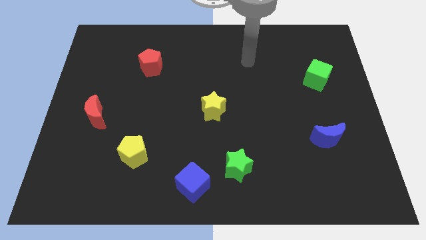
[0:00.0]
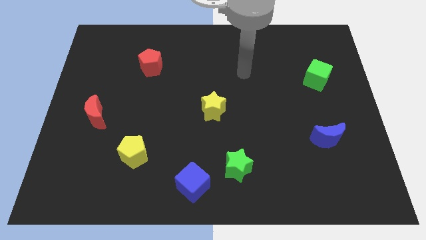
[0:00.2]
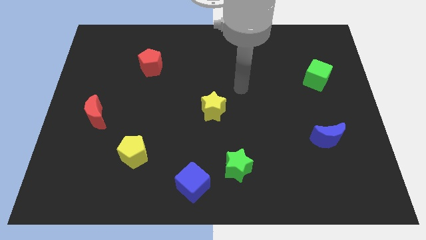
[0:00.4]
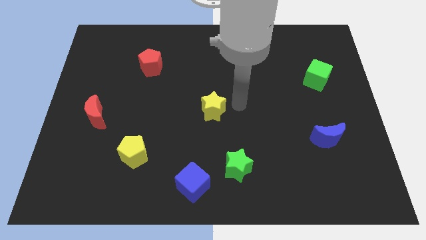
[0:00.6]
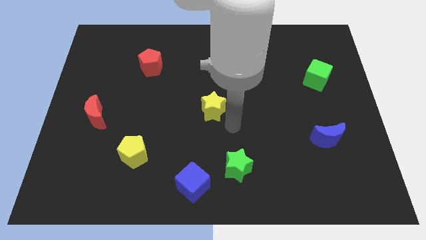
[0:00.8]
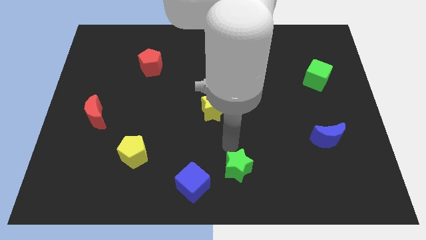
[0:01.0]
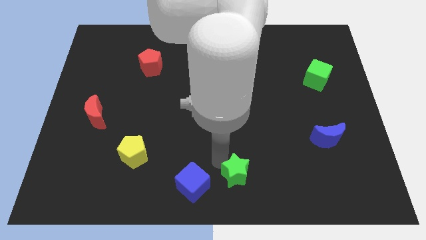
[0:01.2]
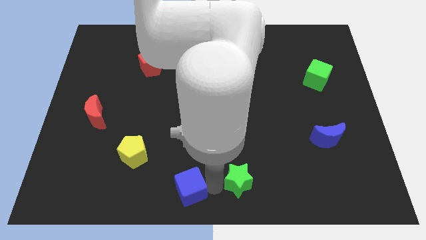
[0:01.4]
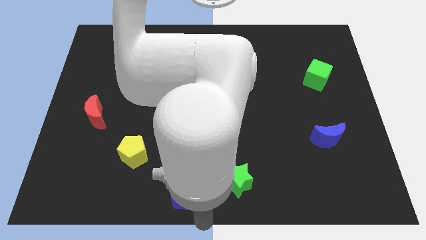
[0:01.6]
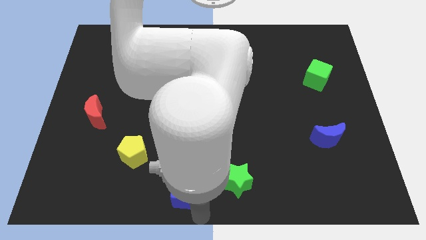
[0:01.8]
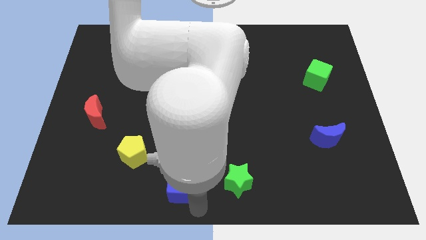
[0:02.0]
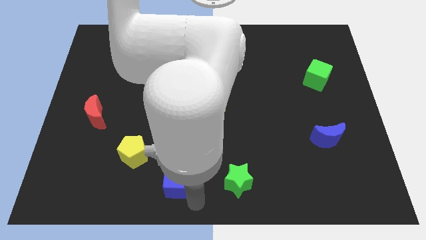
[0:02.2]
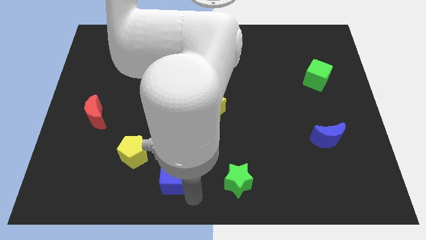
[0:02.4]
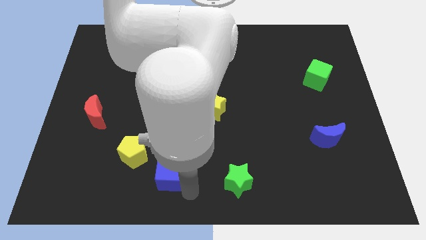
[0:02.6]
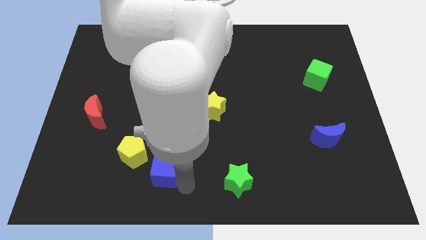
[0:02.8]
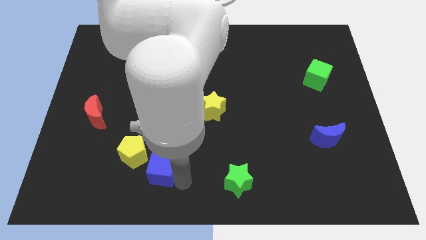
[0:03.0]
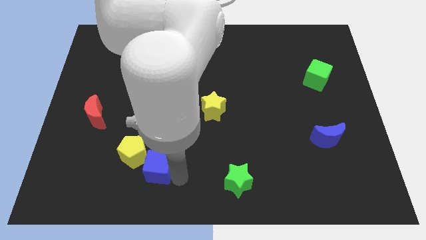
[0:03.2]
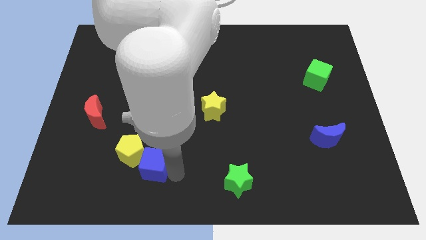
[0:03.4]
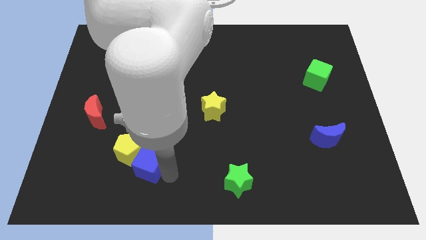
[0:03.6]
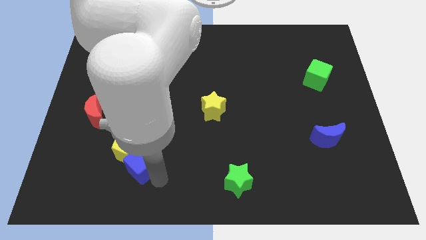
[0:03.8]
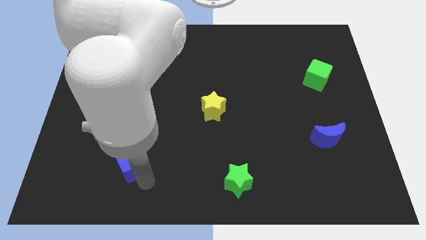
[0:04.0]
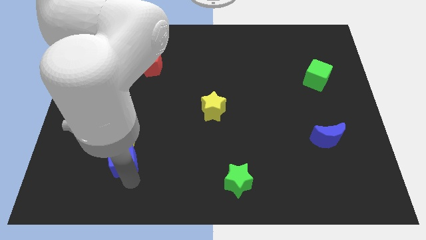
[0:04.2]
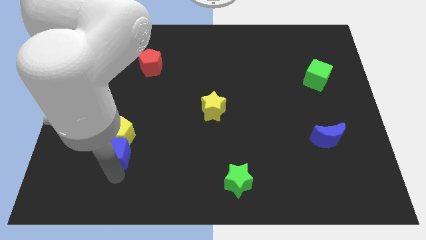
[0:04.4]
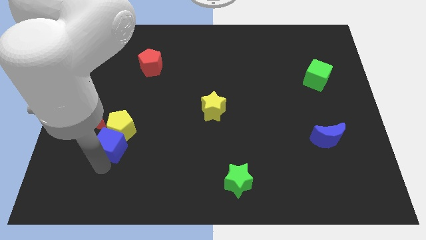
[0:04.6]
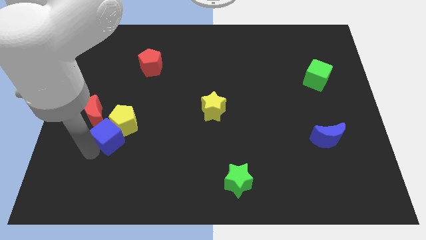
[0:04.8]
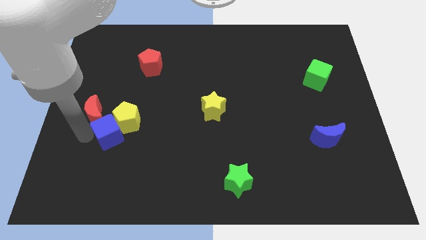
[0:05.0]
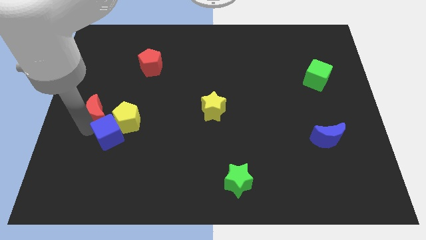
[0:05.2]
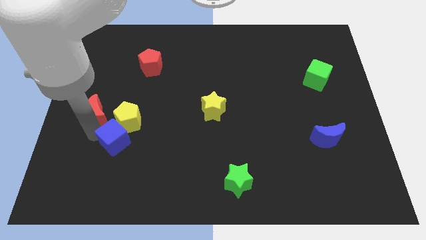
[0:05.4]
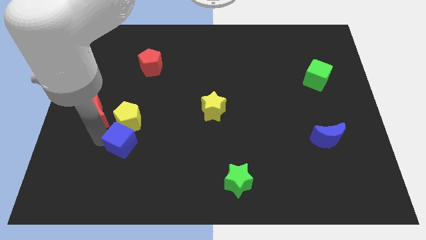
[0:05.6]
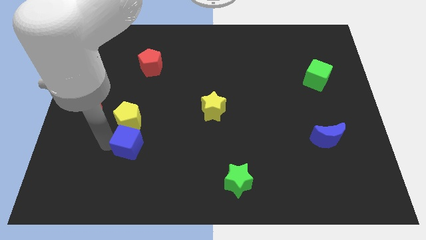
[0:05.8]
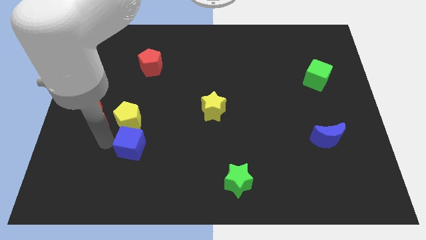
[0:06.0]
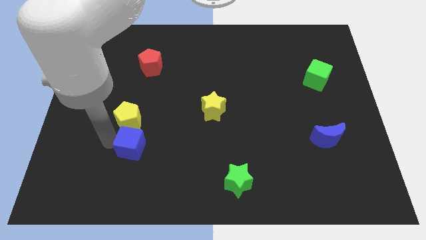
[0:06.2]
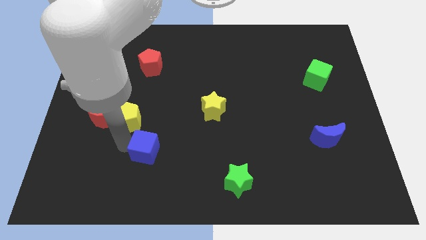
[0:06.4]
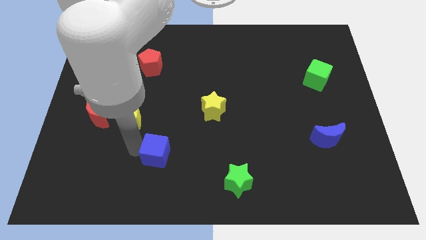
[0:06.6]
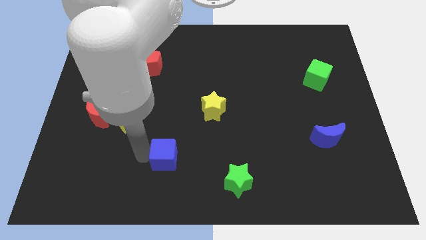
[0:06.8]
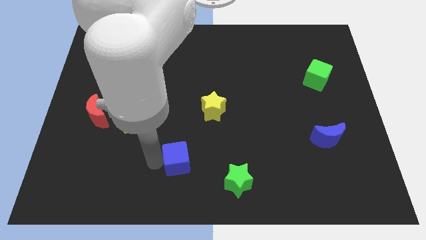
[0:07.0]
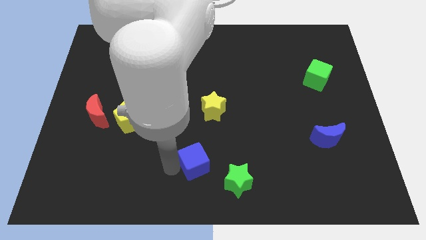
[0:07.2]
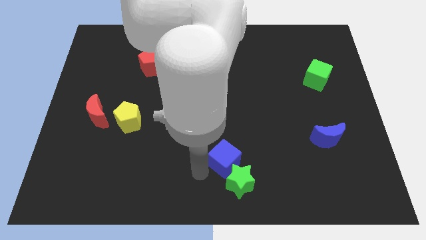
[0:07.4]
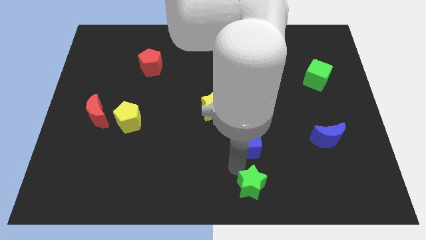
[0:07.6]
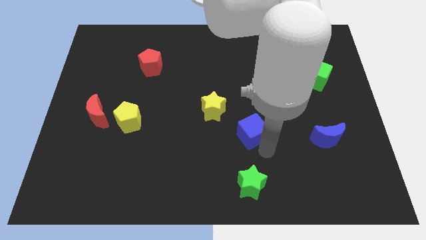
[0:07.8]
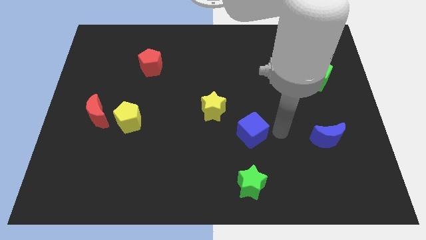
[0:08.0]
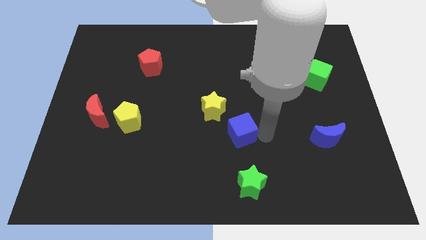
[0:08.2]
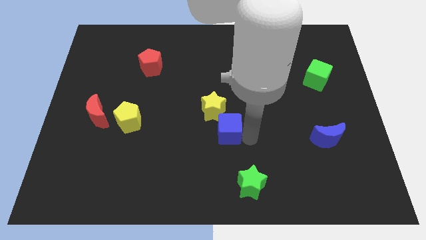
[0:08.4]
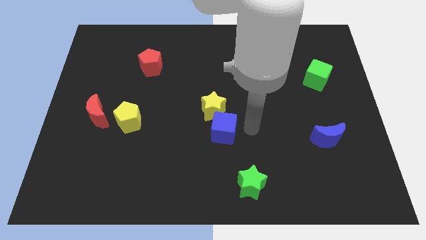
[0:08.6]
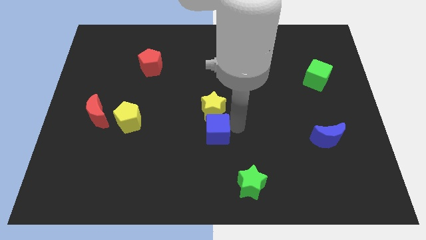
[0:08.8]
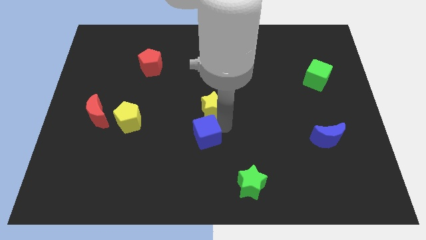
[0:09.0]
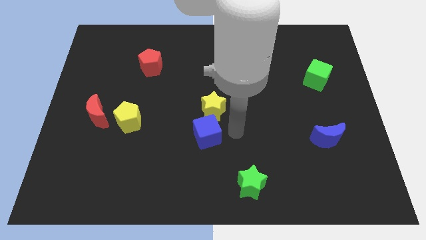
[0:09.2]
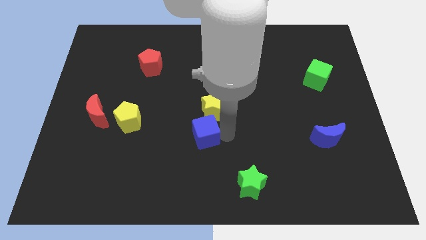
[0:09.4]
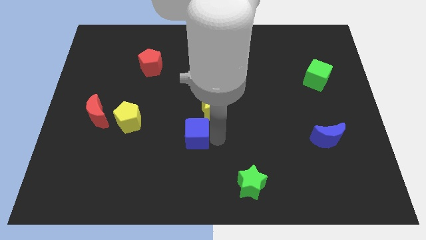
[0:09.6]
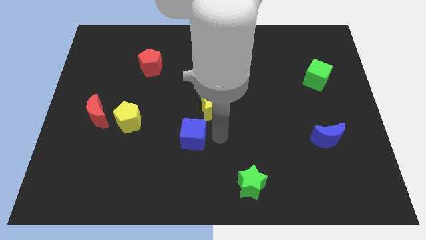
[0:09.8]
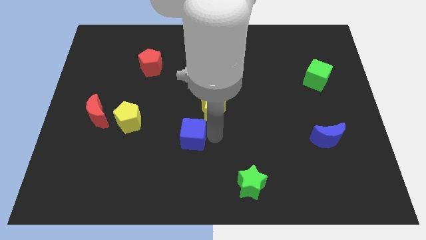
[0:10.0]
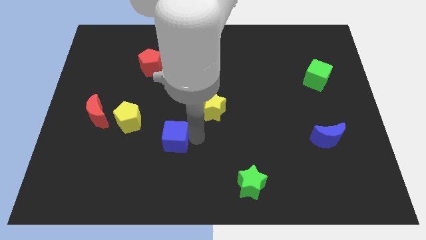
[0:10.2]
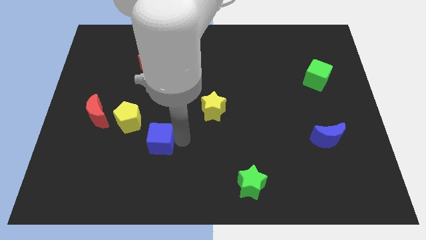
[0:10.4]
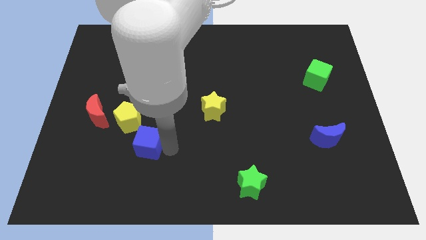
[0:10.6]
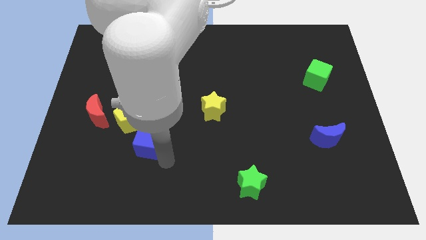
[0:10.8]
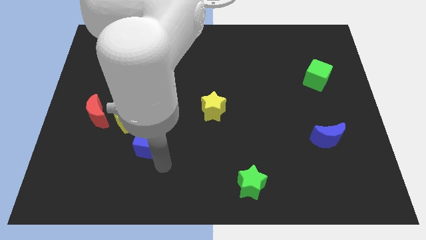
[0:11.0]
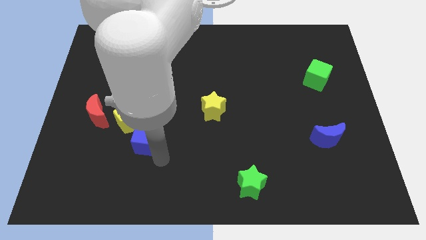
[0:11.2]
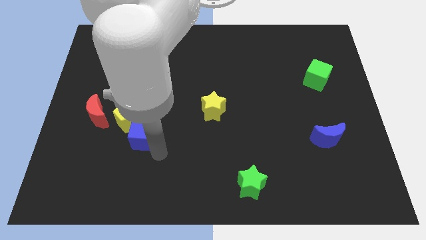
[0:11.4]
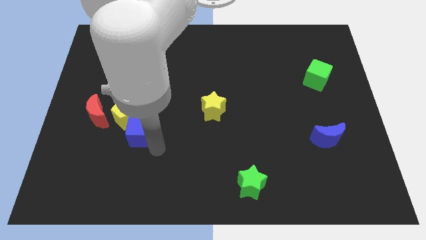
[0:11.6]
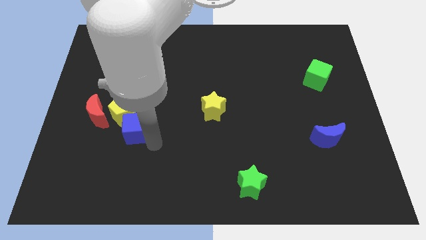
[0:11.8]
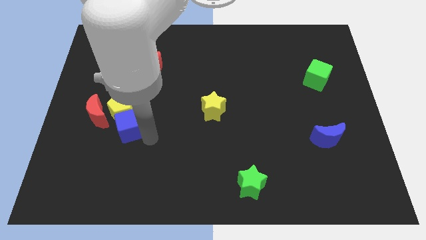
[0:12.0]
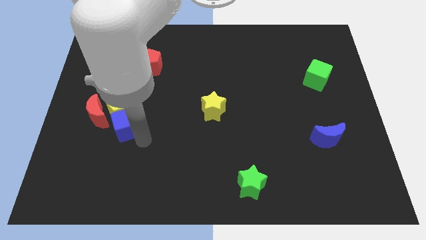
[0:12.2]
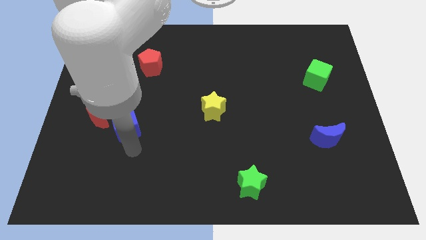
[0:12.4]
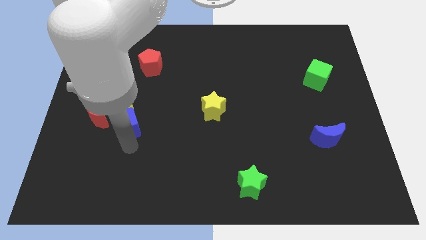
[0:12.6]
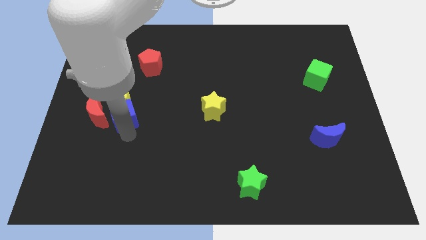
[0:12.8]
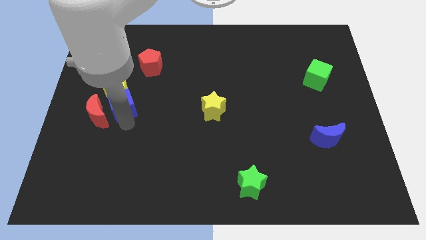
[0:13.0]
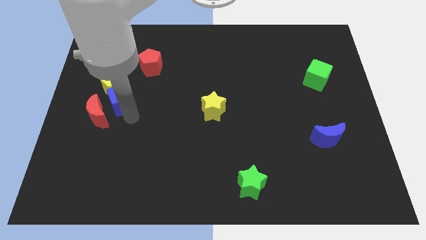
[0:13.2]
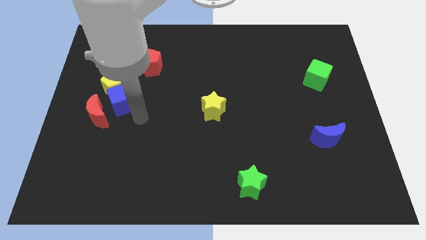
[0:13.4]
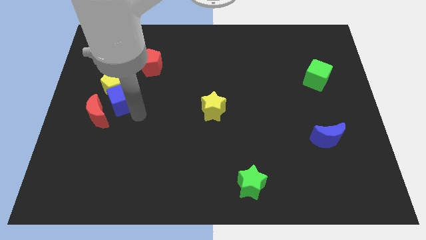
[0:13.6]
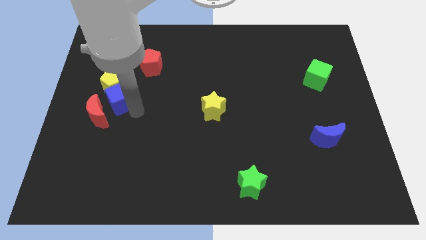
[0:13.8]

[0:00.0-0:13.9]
push the blue cube to the top of the red moon

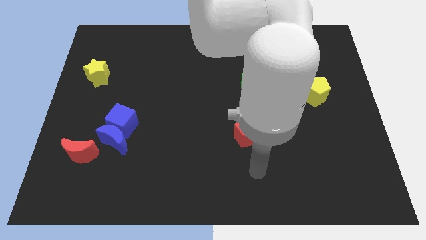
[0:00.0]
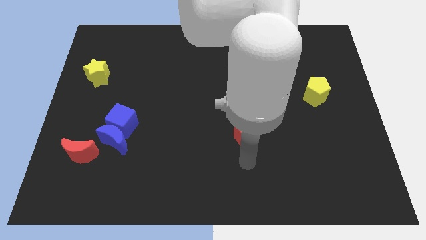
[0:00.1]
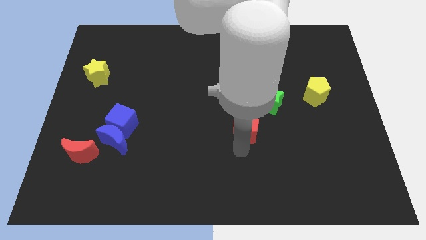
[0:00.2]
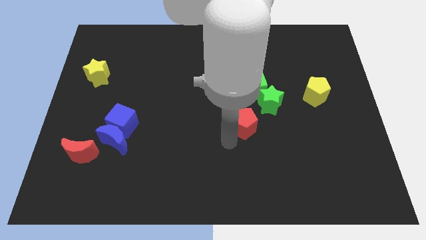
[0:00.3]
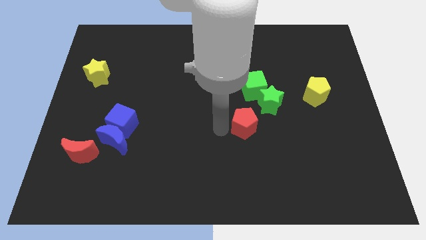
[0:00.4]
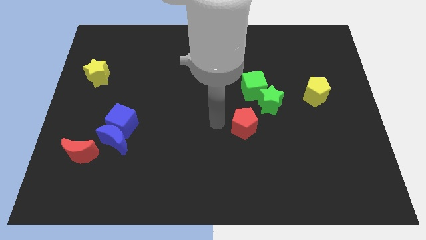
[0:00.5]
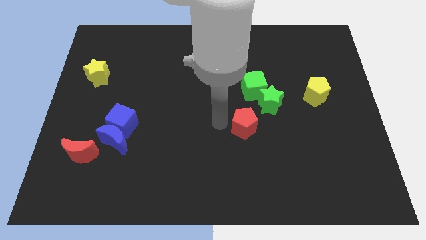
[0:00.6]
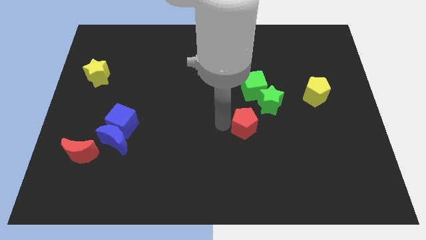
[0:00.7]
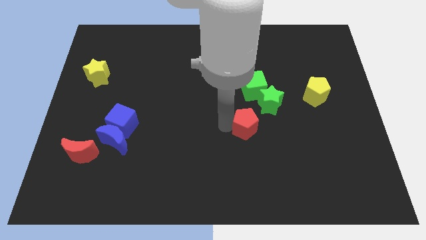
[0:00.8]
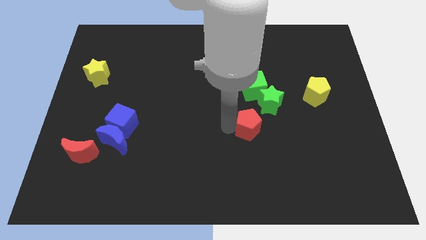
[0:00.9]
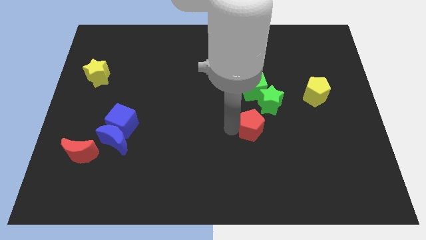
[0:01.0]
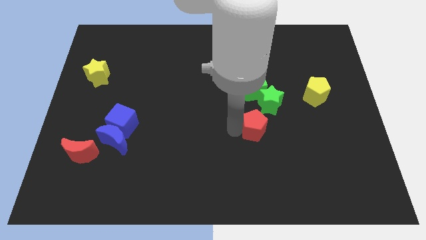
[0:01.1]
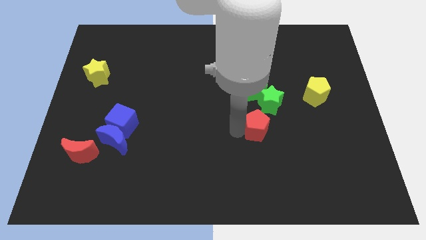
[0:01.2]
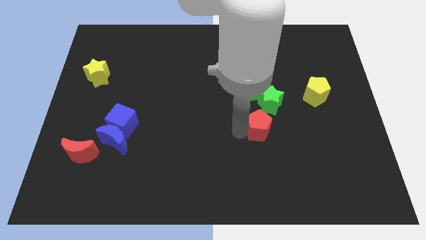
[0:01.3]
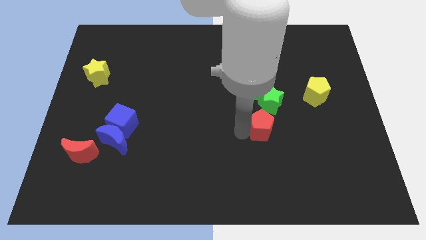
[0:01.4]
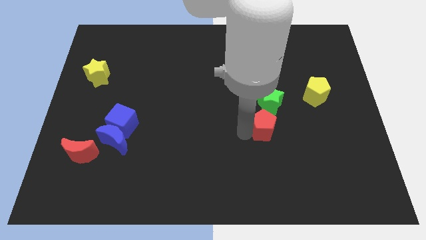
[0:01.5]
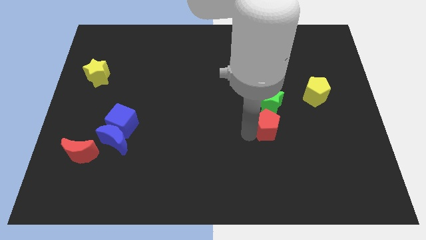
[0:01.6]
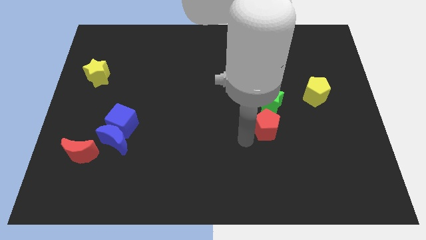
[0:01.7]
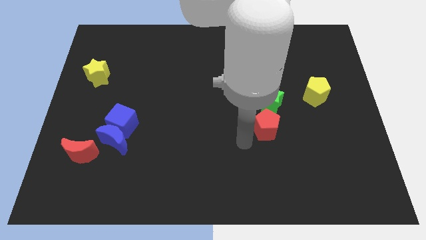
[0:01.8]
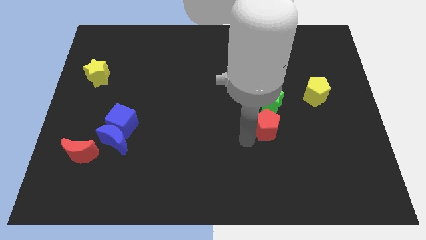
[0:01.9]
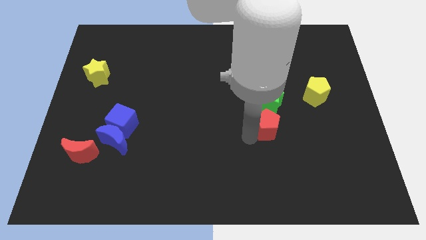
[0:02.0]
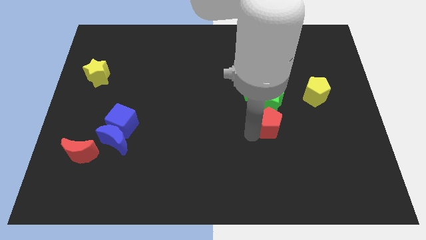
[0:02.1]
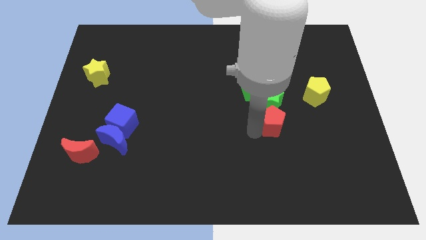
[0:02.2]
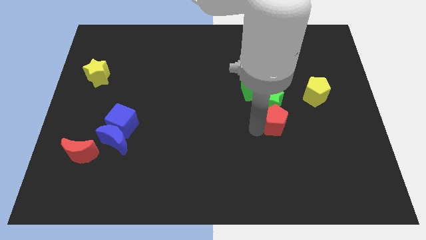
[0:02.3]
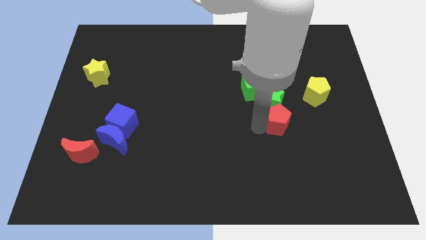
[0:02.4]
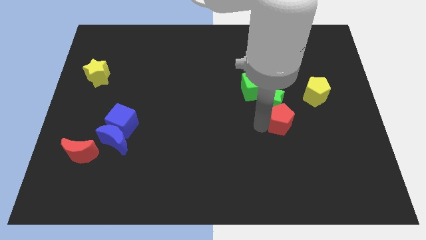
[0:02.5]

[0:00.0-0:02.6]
slide the red pentagon to the bottom left of the yellow pentagon
